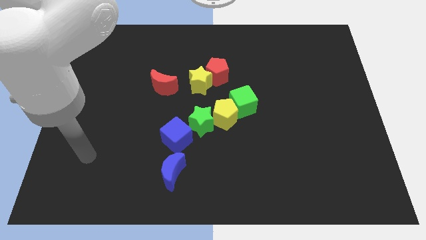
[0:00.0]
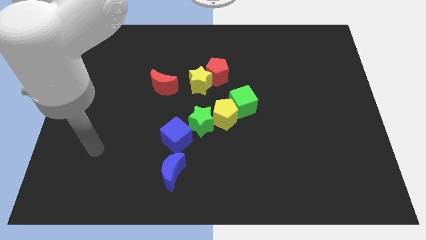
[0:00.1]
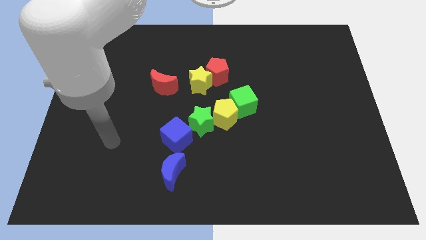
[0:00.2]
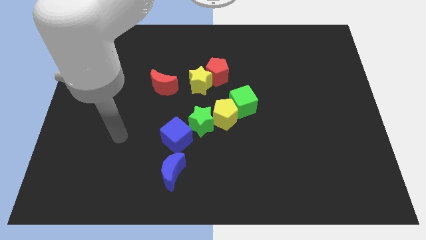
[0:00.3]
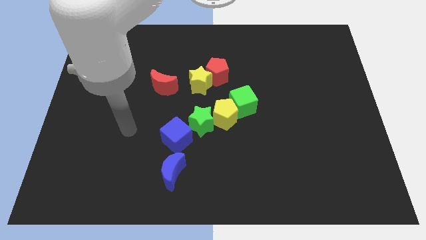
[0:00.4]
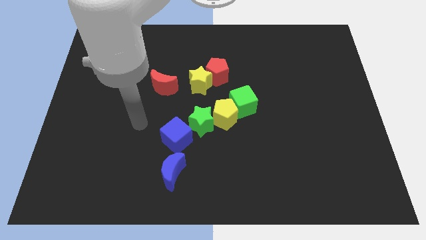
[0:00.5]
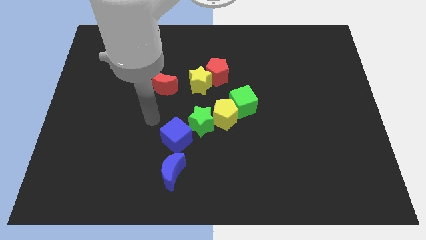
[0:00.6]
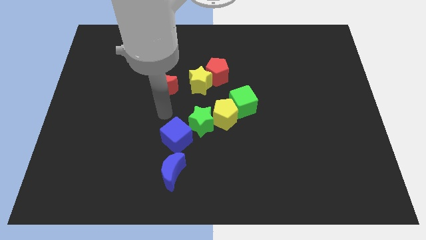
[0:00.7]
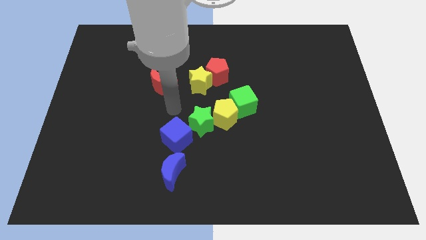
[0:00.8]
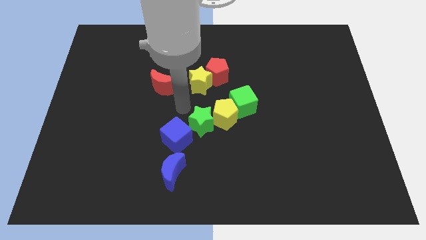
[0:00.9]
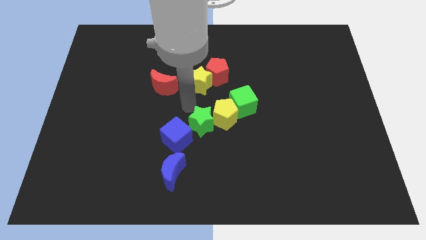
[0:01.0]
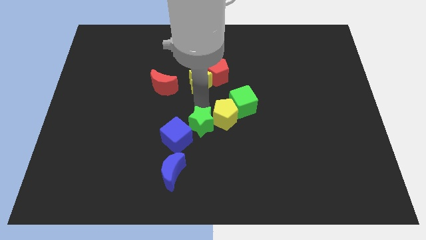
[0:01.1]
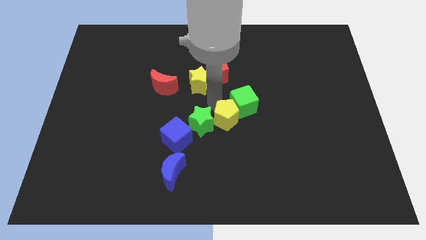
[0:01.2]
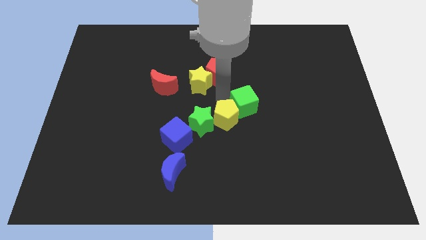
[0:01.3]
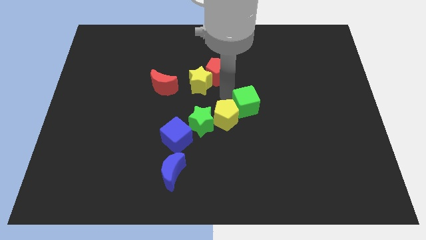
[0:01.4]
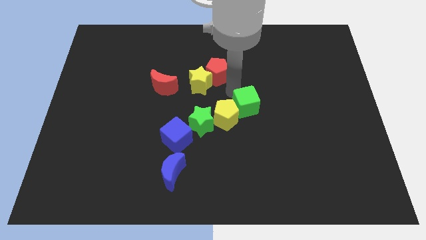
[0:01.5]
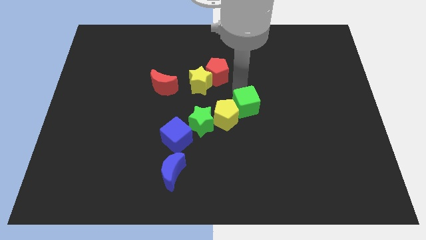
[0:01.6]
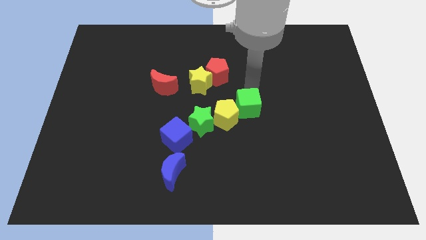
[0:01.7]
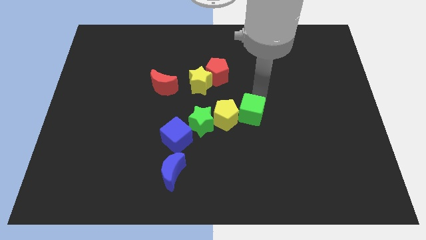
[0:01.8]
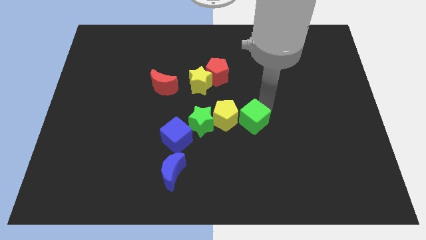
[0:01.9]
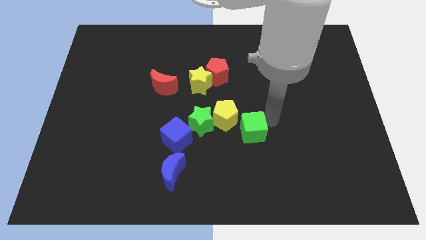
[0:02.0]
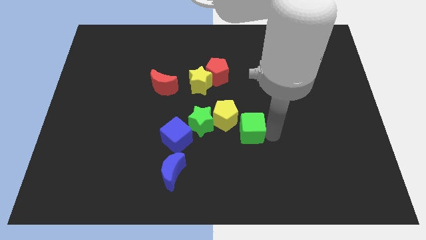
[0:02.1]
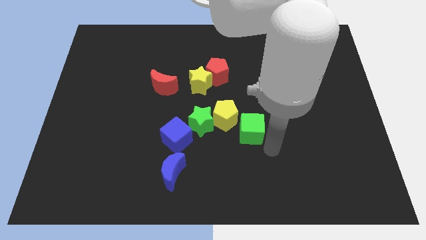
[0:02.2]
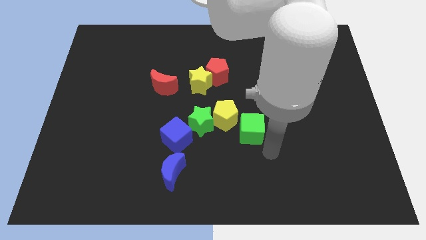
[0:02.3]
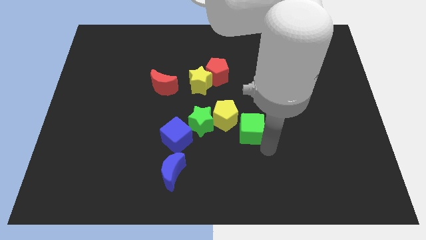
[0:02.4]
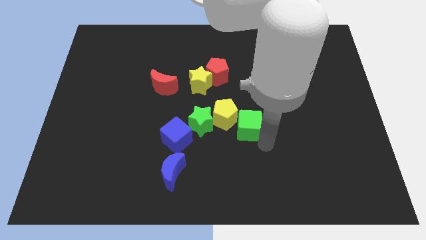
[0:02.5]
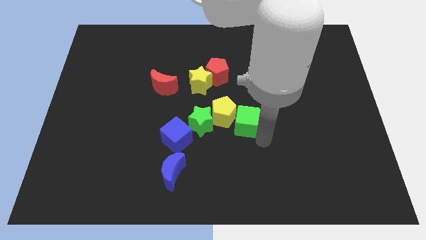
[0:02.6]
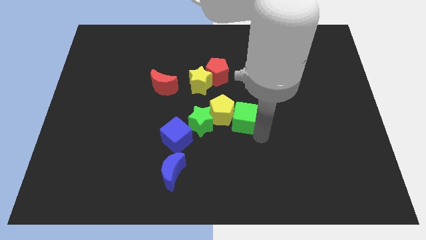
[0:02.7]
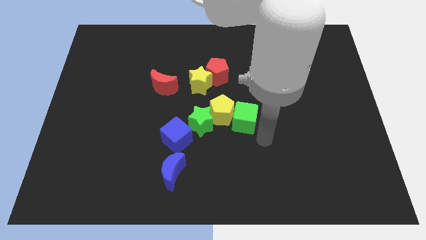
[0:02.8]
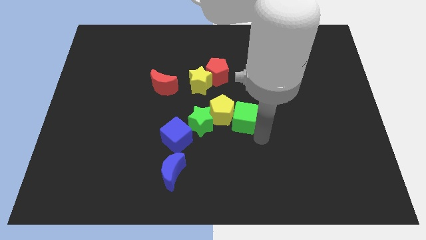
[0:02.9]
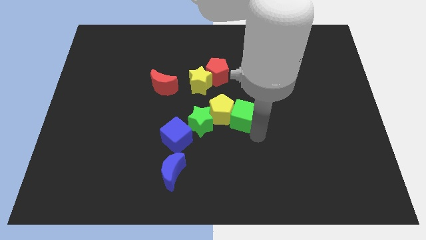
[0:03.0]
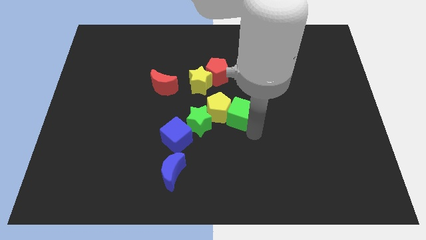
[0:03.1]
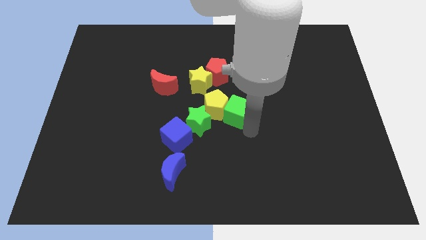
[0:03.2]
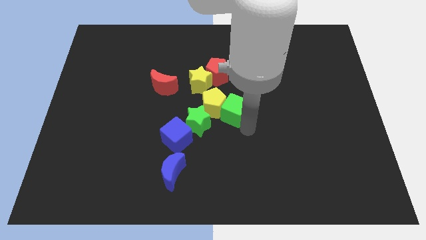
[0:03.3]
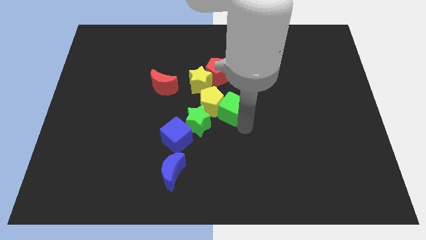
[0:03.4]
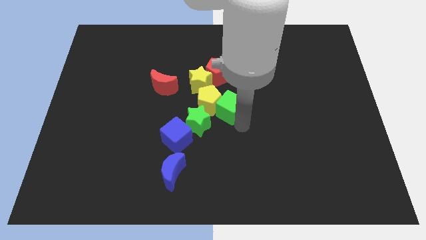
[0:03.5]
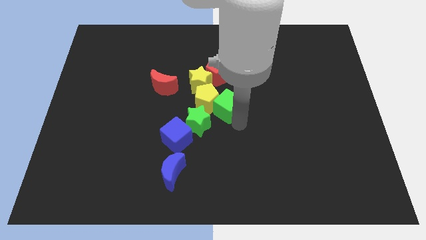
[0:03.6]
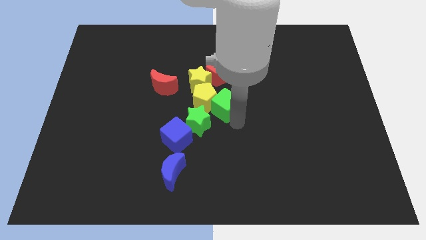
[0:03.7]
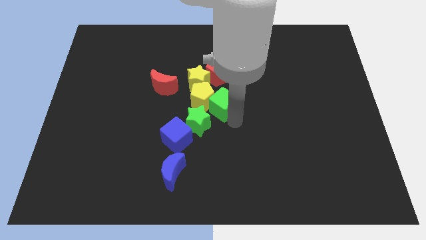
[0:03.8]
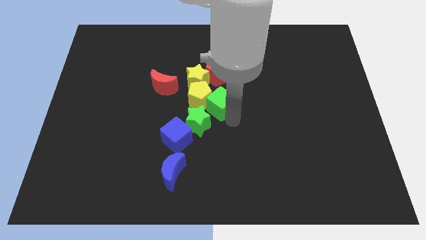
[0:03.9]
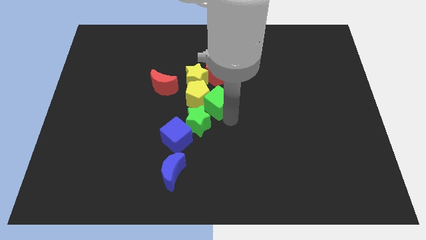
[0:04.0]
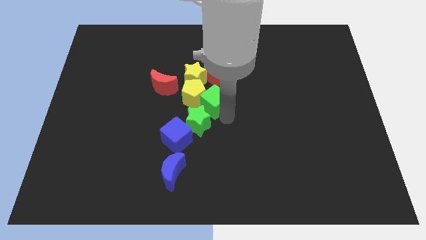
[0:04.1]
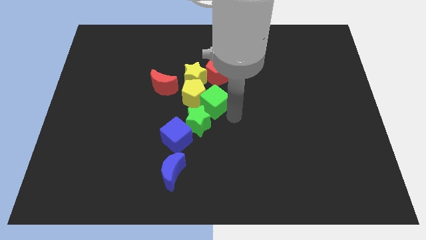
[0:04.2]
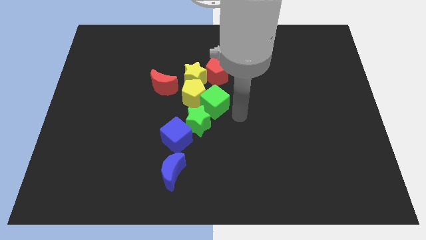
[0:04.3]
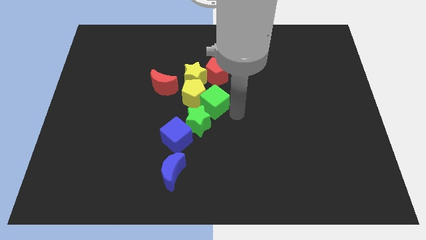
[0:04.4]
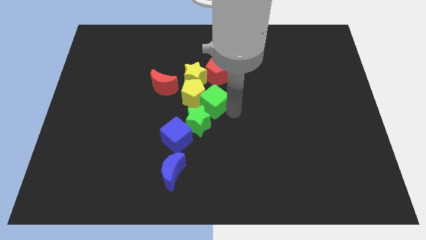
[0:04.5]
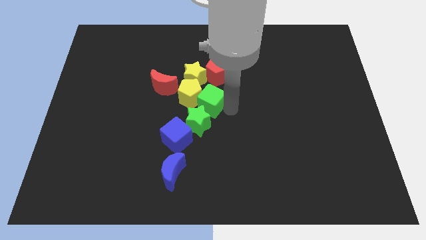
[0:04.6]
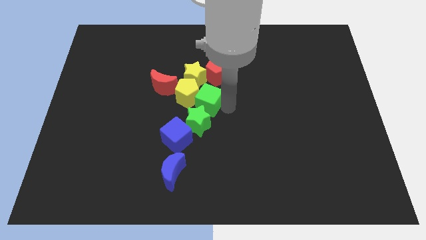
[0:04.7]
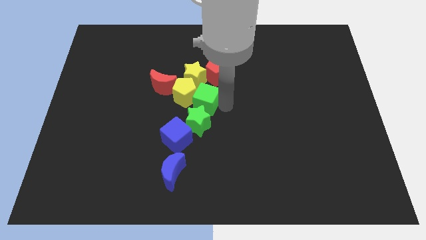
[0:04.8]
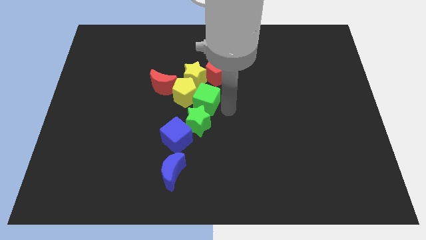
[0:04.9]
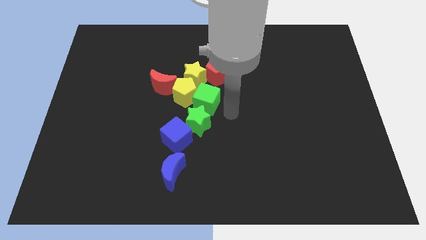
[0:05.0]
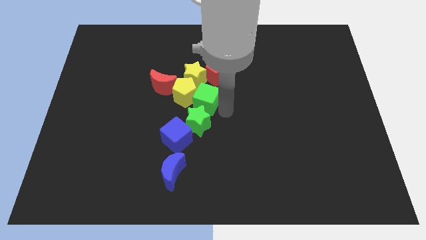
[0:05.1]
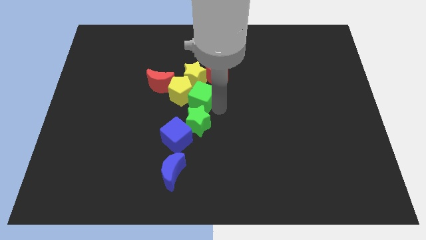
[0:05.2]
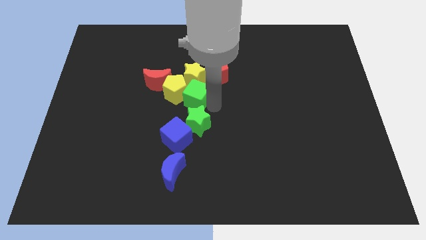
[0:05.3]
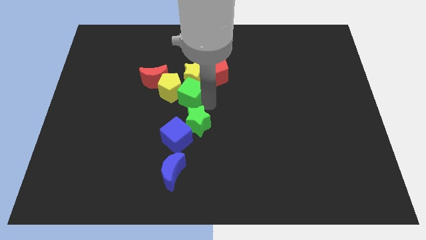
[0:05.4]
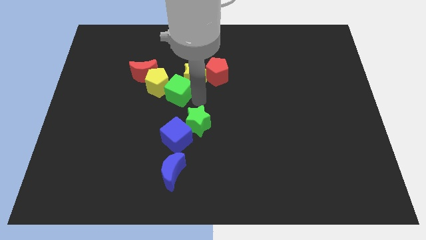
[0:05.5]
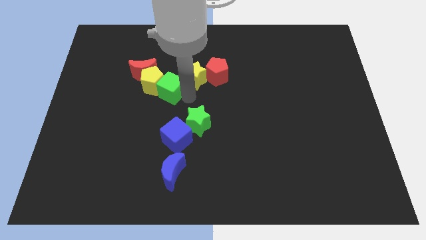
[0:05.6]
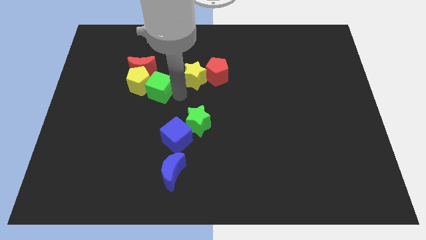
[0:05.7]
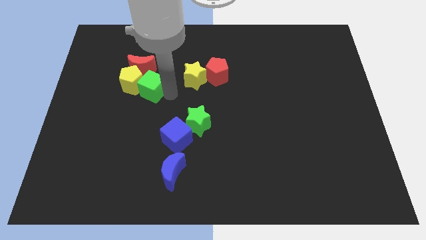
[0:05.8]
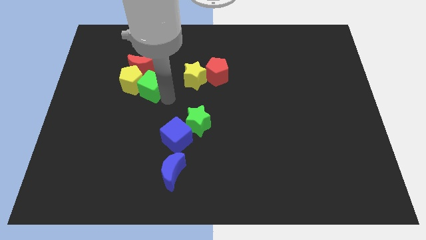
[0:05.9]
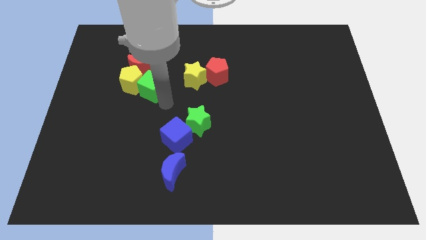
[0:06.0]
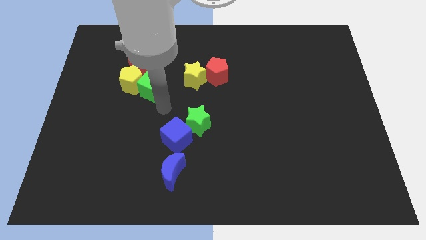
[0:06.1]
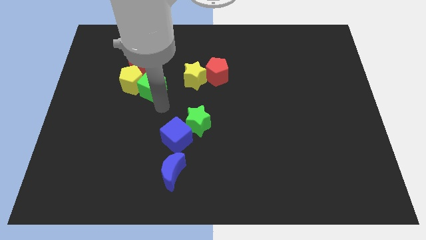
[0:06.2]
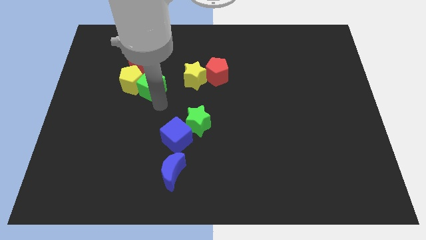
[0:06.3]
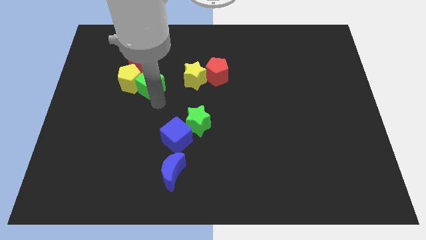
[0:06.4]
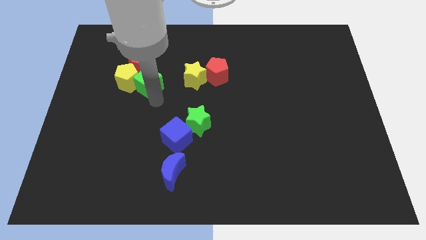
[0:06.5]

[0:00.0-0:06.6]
slide the green cube towards the red moon

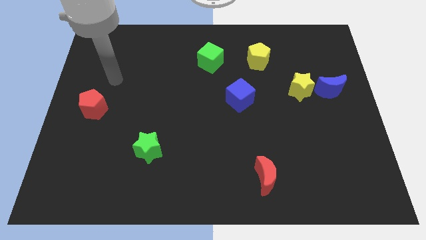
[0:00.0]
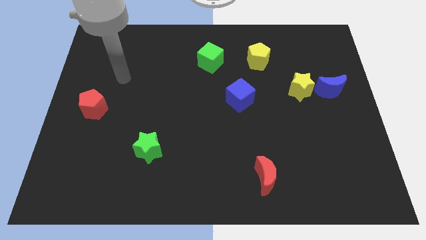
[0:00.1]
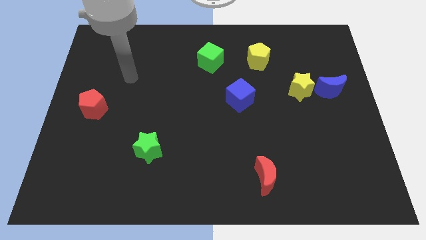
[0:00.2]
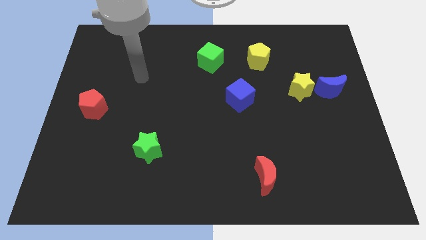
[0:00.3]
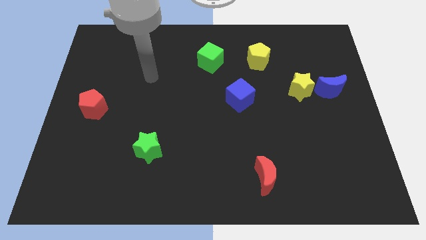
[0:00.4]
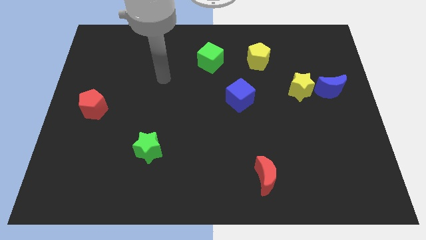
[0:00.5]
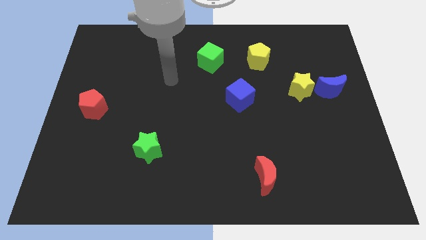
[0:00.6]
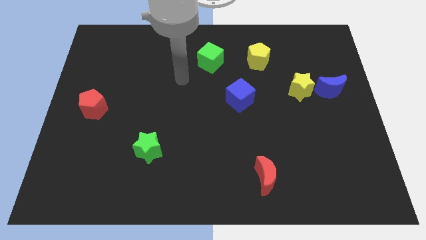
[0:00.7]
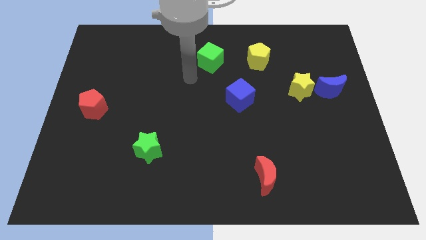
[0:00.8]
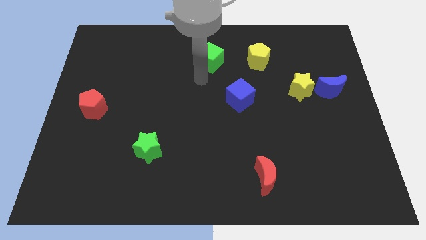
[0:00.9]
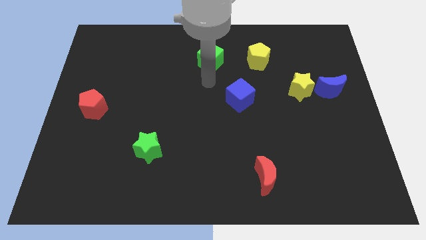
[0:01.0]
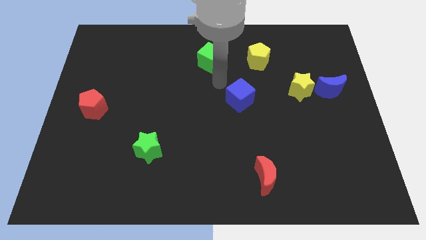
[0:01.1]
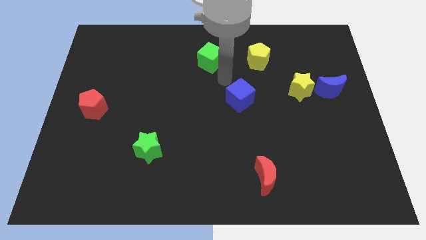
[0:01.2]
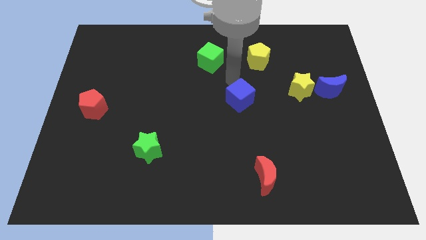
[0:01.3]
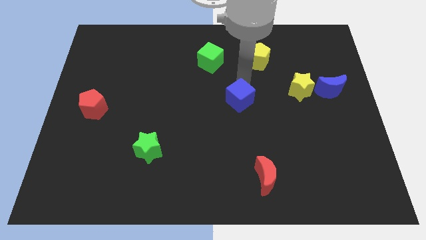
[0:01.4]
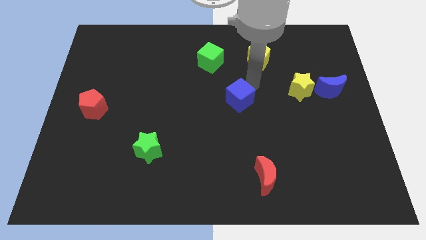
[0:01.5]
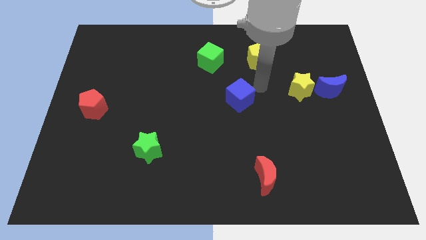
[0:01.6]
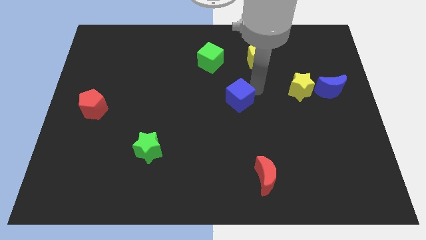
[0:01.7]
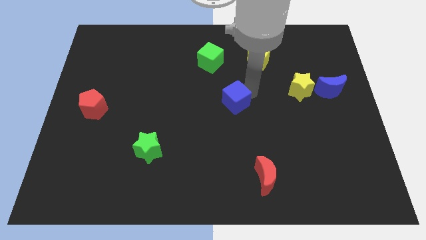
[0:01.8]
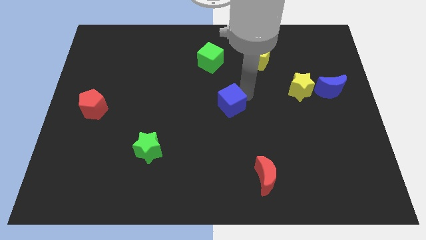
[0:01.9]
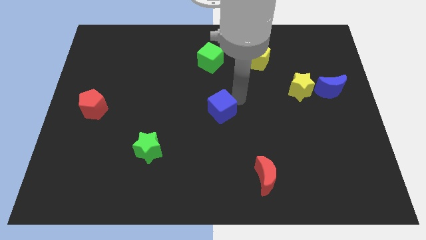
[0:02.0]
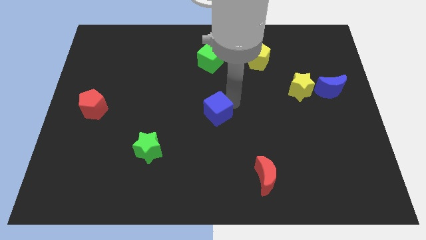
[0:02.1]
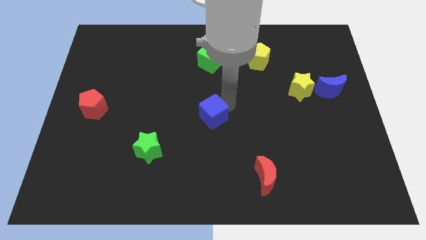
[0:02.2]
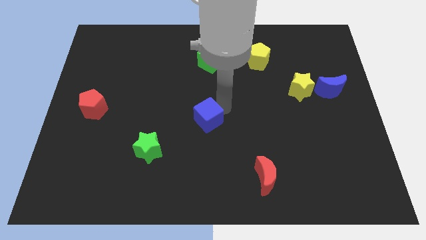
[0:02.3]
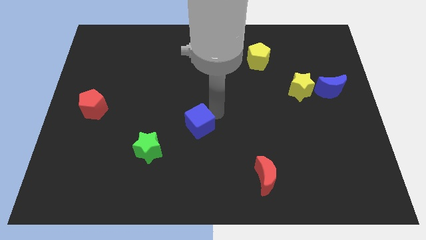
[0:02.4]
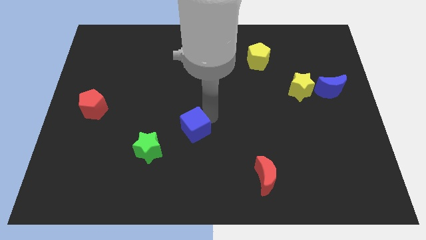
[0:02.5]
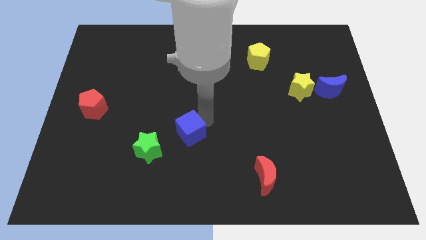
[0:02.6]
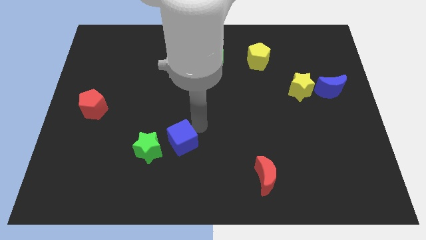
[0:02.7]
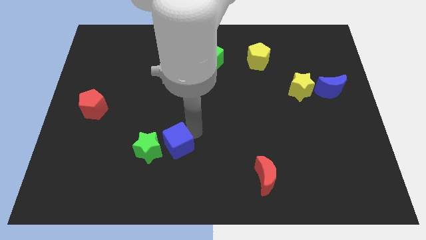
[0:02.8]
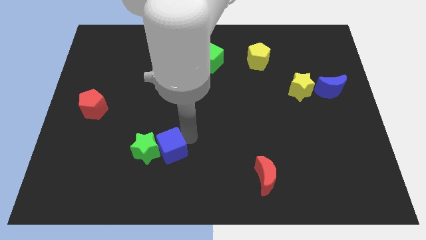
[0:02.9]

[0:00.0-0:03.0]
put the blue cube to the green star
